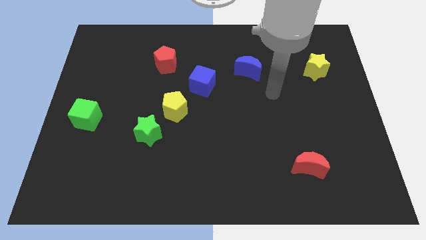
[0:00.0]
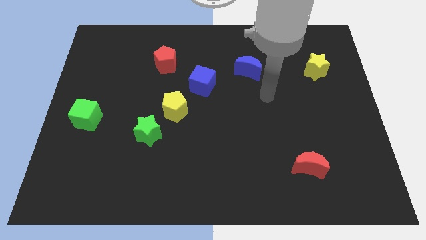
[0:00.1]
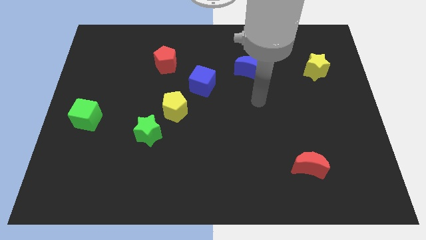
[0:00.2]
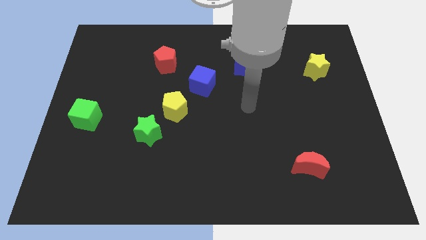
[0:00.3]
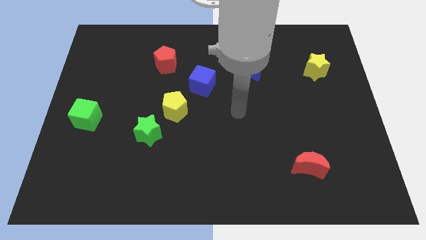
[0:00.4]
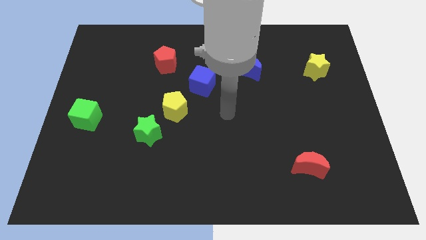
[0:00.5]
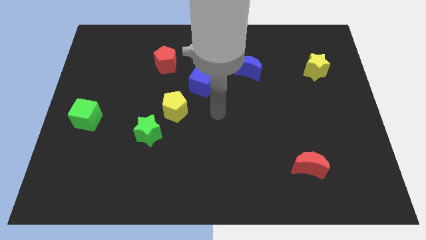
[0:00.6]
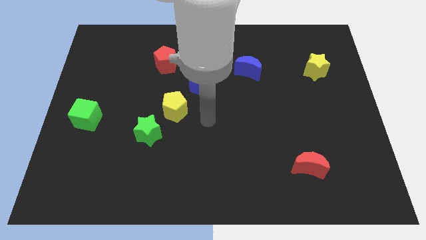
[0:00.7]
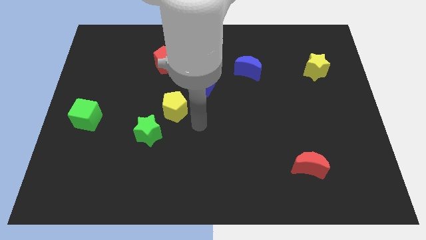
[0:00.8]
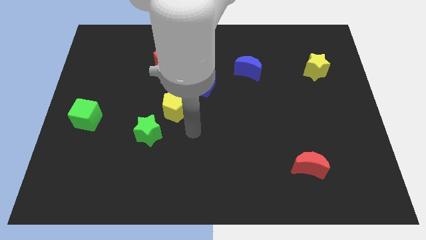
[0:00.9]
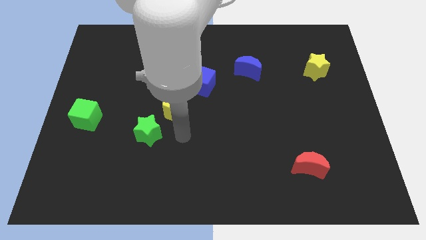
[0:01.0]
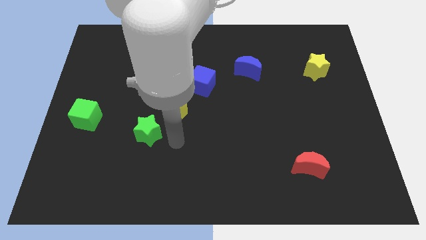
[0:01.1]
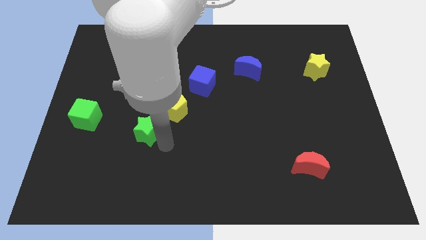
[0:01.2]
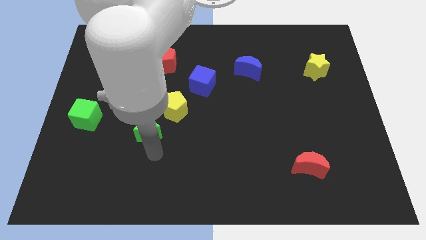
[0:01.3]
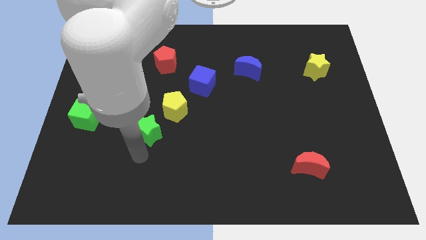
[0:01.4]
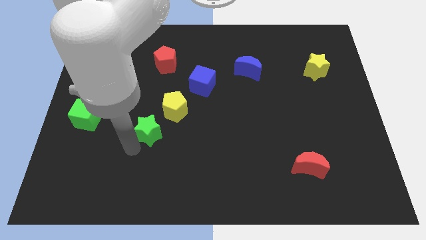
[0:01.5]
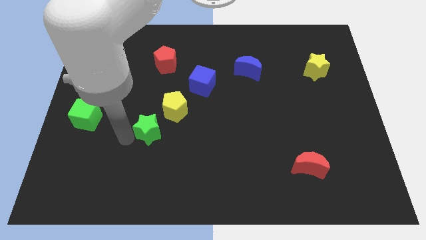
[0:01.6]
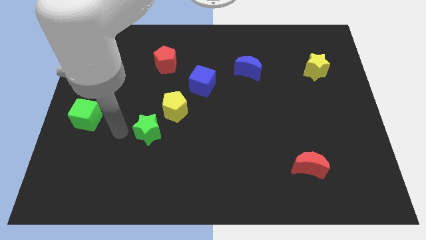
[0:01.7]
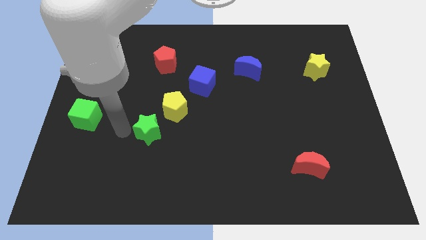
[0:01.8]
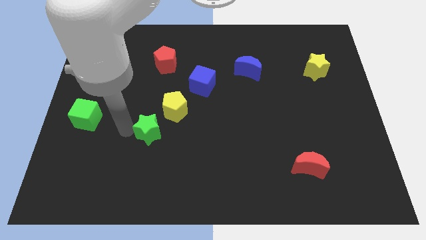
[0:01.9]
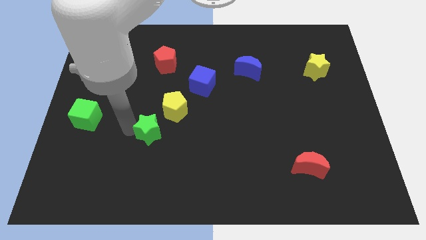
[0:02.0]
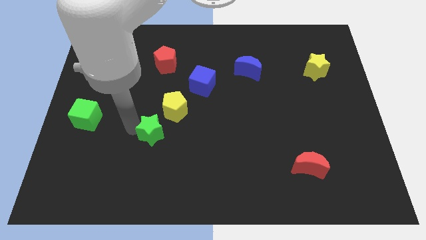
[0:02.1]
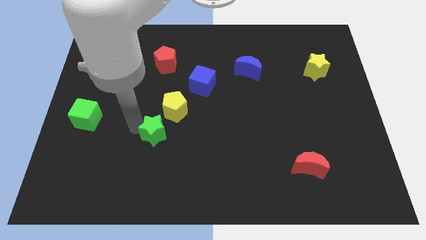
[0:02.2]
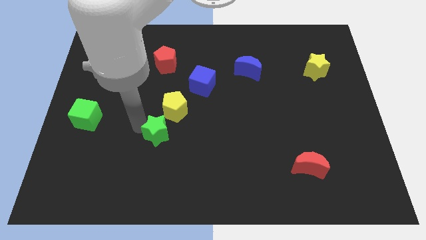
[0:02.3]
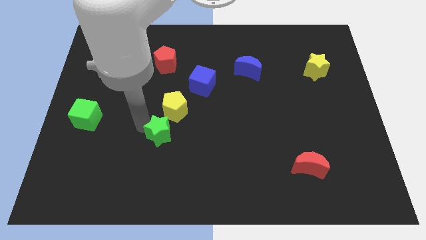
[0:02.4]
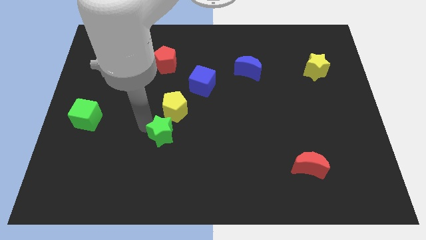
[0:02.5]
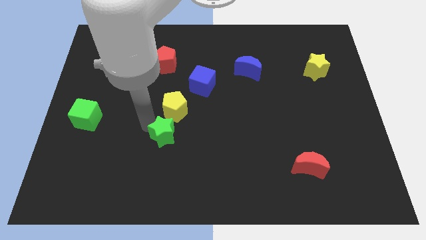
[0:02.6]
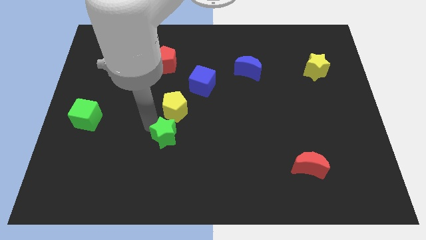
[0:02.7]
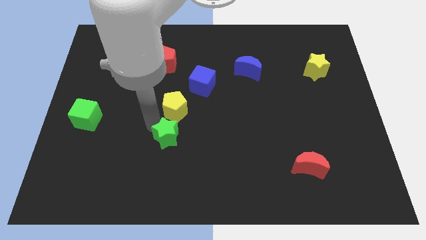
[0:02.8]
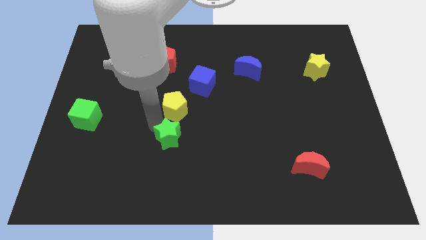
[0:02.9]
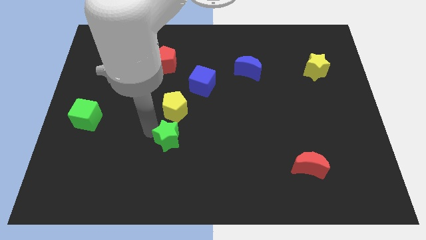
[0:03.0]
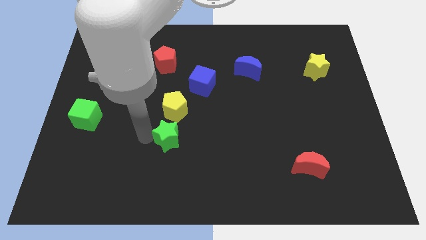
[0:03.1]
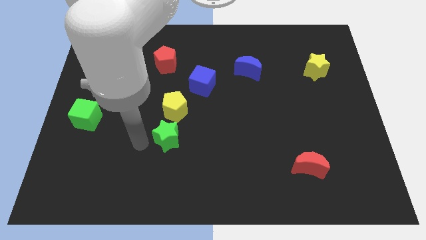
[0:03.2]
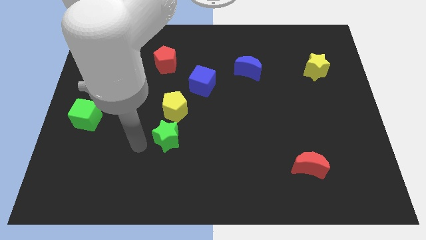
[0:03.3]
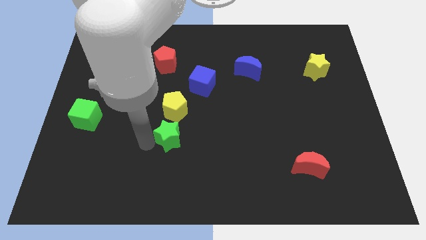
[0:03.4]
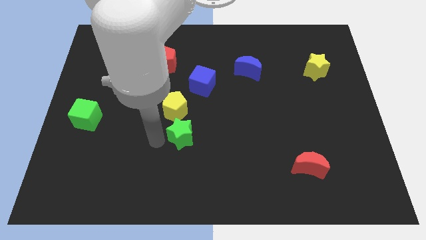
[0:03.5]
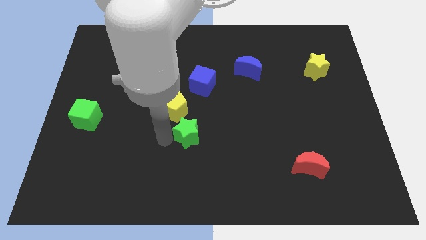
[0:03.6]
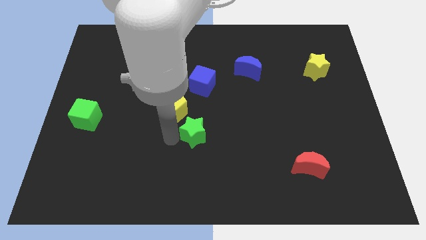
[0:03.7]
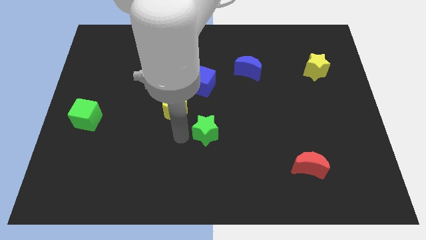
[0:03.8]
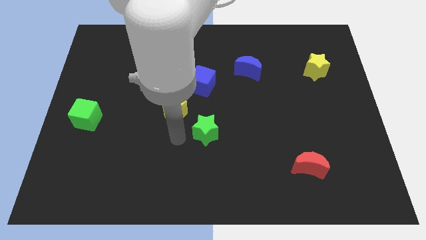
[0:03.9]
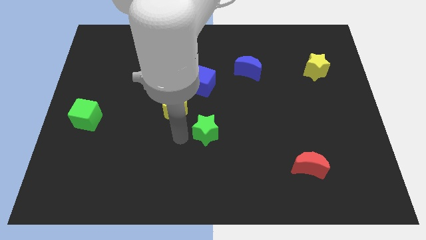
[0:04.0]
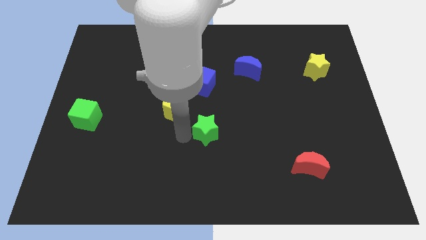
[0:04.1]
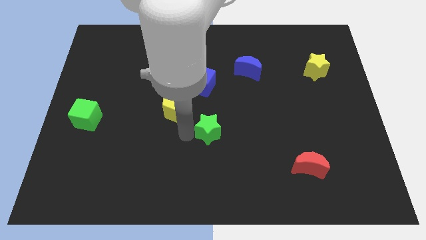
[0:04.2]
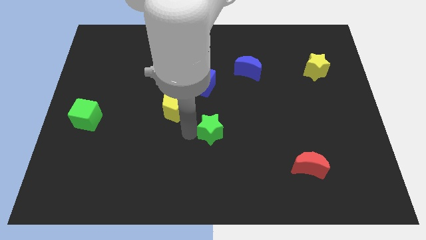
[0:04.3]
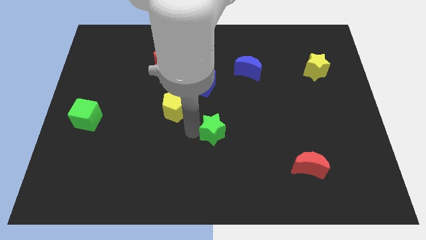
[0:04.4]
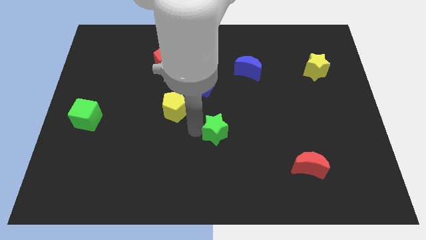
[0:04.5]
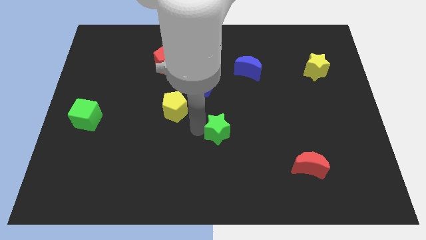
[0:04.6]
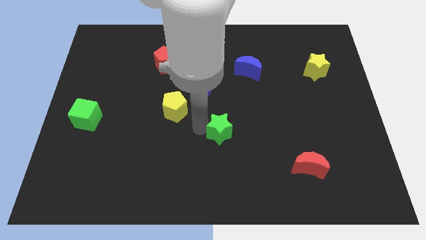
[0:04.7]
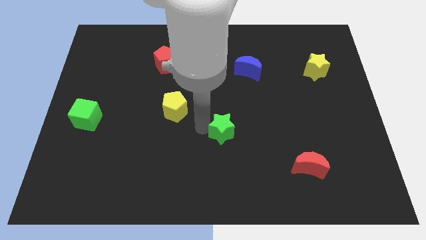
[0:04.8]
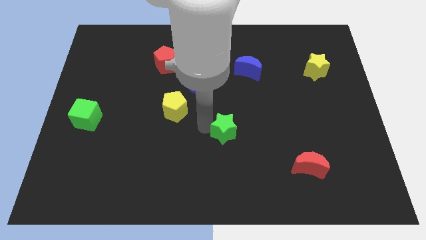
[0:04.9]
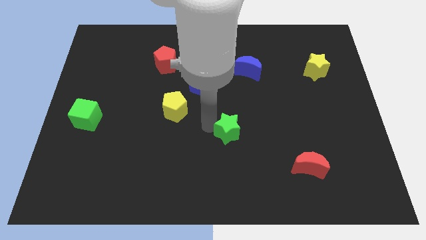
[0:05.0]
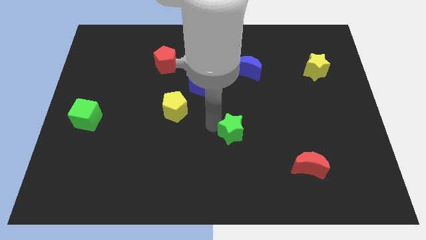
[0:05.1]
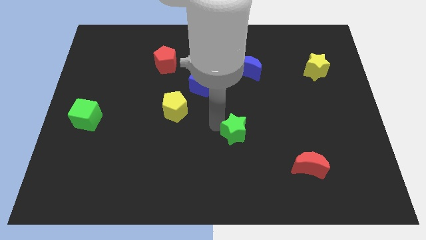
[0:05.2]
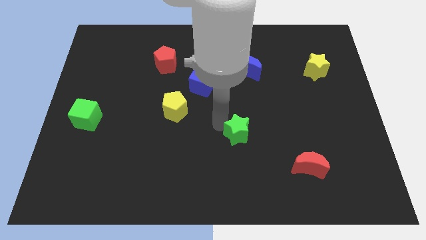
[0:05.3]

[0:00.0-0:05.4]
push the green star to the right

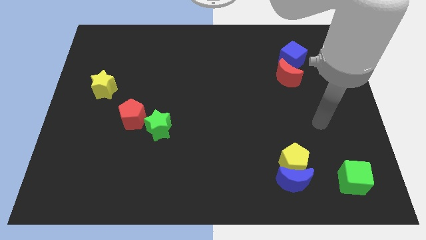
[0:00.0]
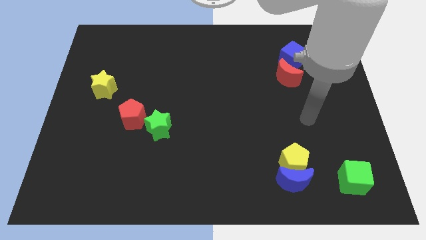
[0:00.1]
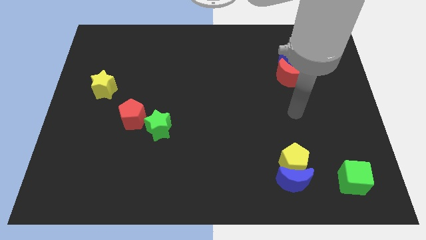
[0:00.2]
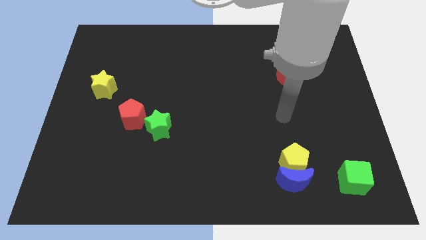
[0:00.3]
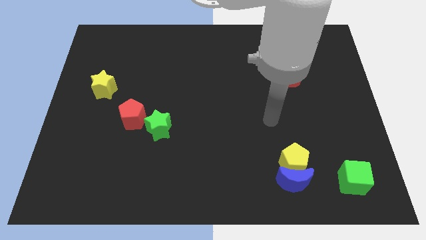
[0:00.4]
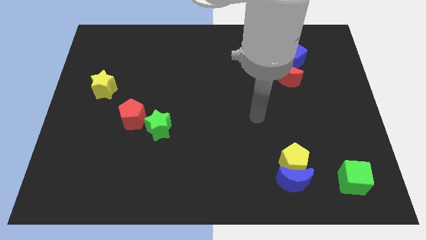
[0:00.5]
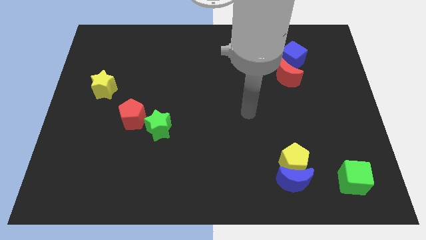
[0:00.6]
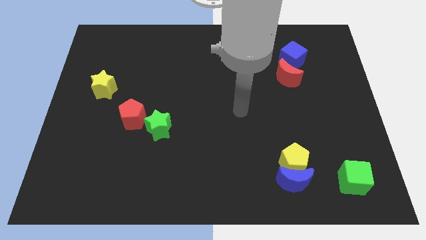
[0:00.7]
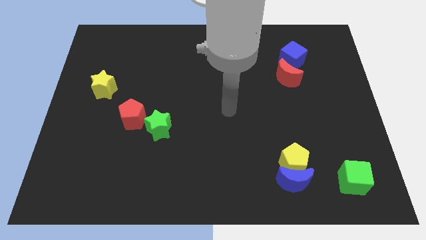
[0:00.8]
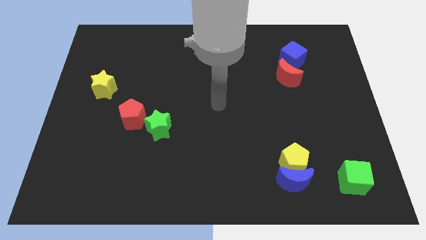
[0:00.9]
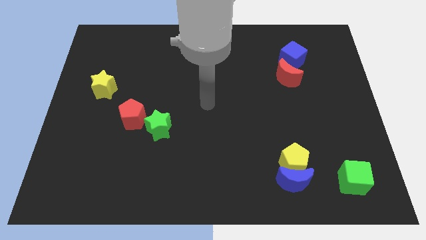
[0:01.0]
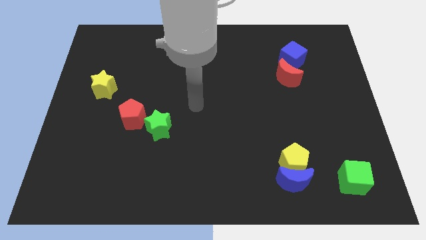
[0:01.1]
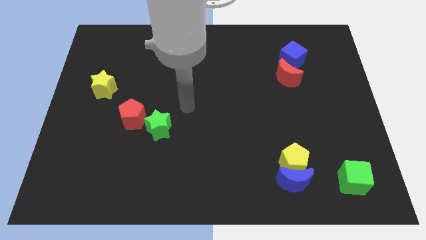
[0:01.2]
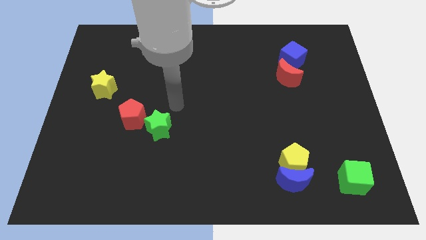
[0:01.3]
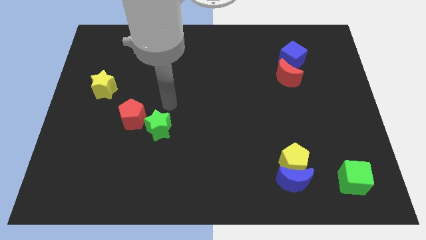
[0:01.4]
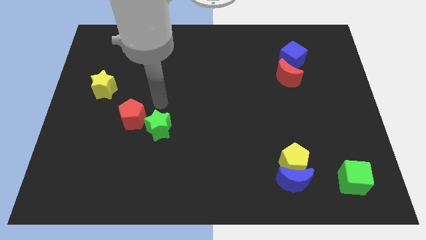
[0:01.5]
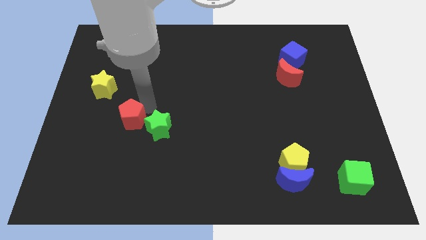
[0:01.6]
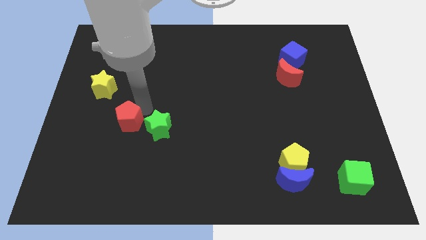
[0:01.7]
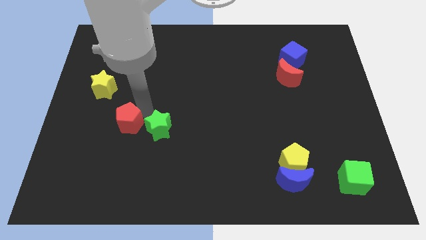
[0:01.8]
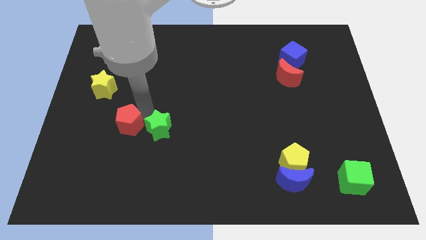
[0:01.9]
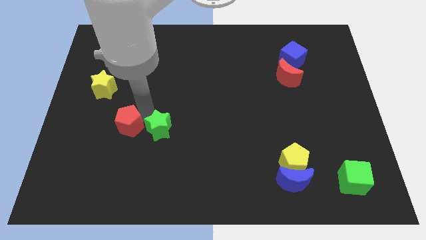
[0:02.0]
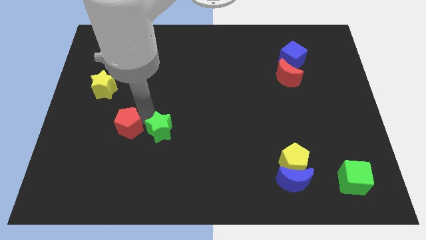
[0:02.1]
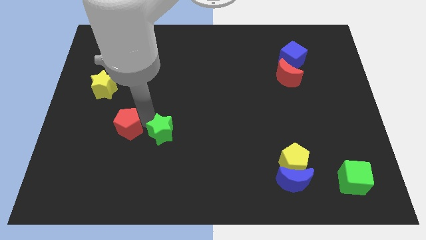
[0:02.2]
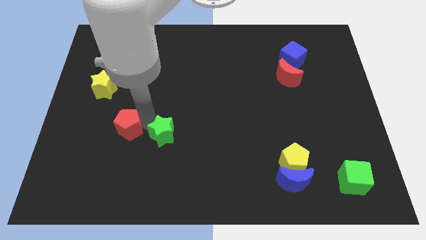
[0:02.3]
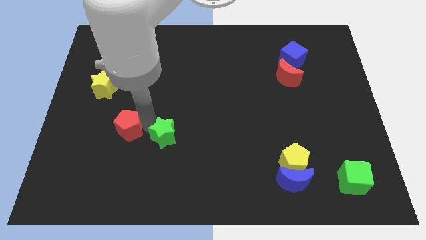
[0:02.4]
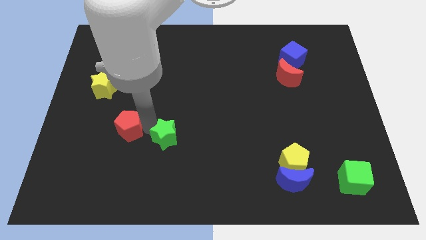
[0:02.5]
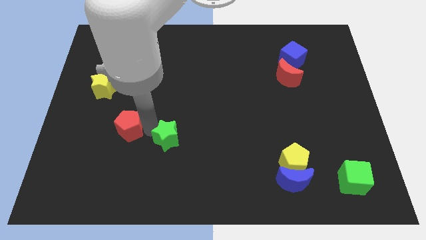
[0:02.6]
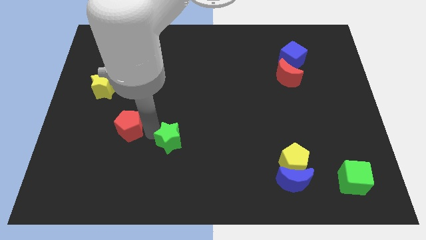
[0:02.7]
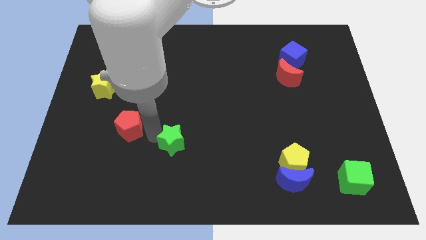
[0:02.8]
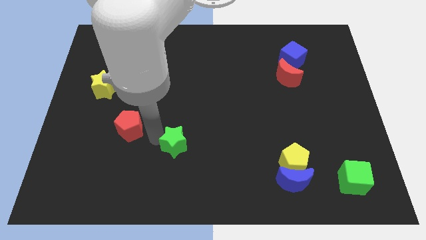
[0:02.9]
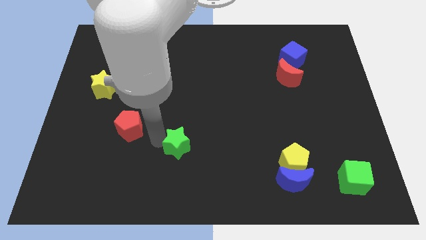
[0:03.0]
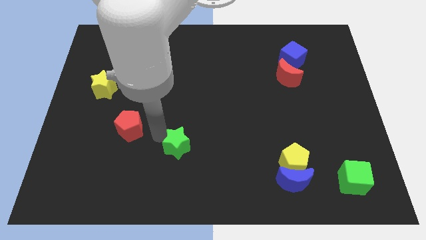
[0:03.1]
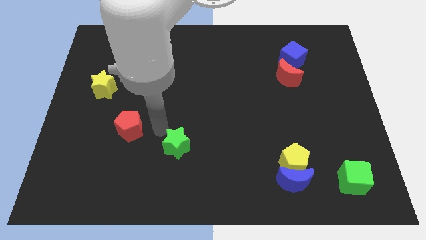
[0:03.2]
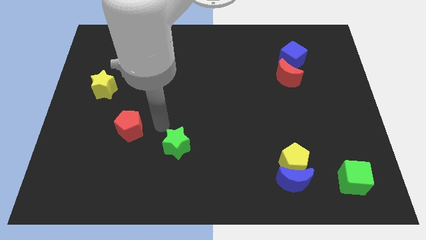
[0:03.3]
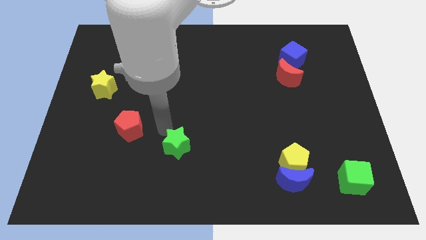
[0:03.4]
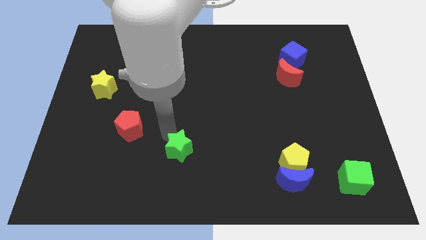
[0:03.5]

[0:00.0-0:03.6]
push the green star downwards and right diagonally a little
